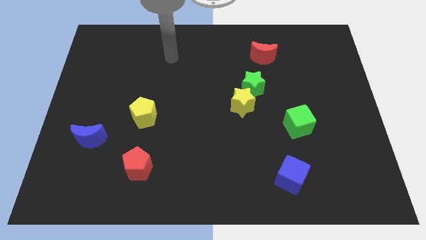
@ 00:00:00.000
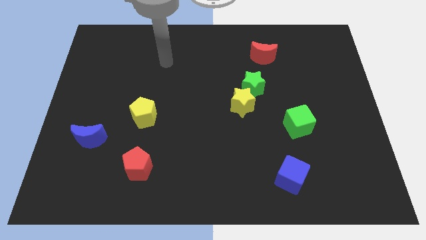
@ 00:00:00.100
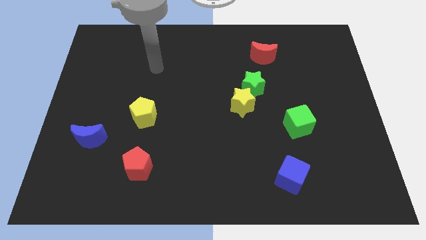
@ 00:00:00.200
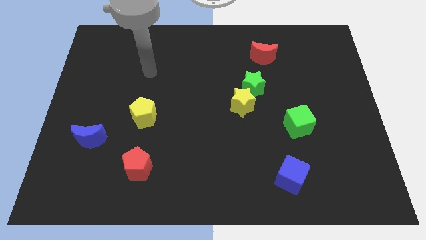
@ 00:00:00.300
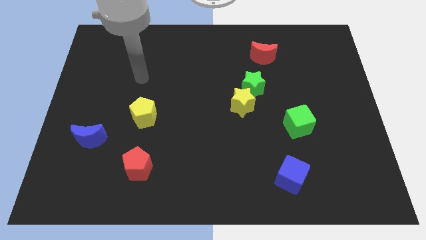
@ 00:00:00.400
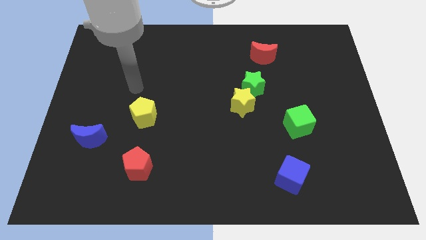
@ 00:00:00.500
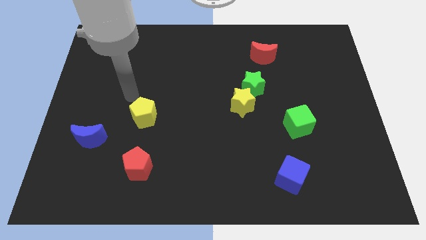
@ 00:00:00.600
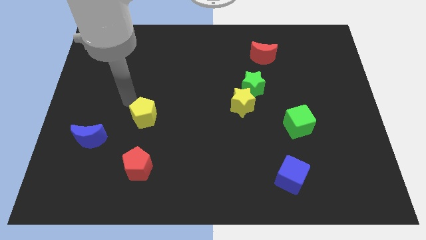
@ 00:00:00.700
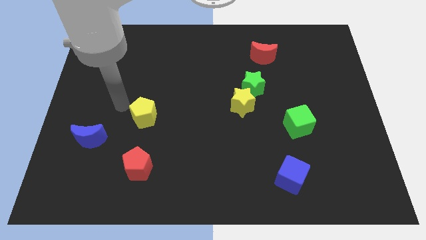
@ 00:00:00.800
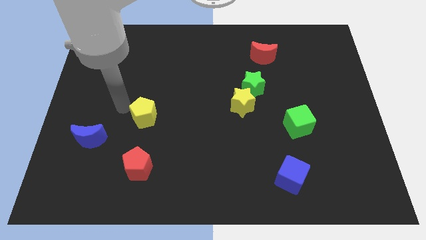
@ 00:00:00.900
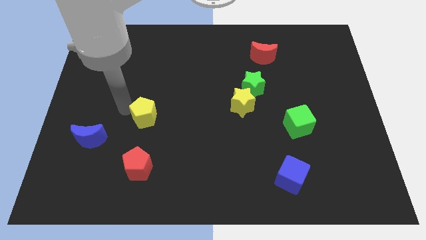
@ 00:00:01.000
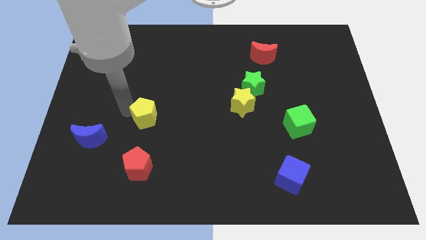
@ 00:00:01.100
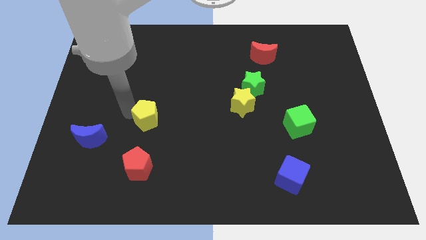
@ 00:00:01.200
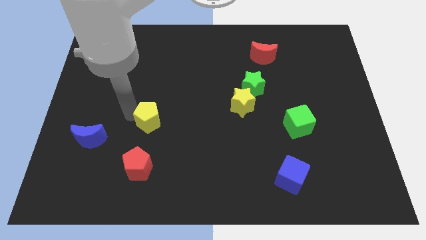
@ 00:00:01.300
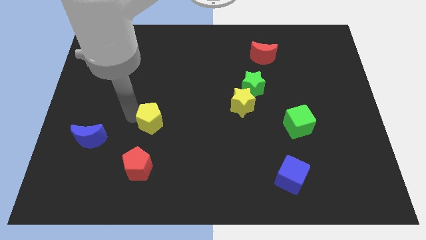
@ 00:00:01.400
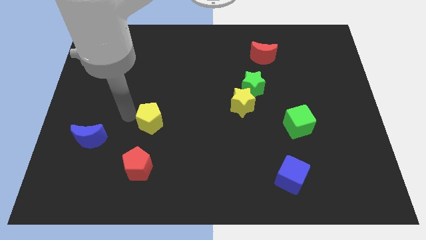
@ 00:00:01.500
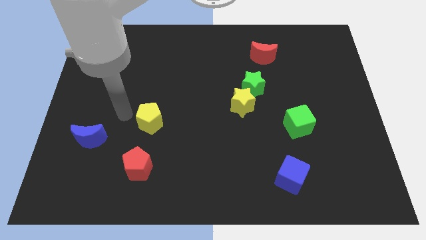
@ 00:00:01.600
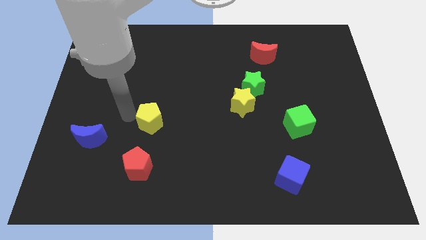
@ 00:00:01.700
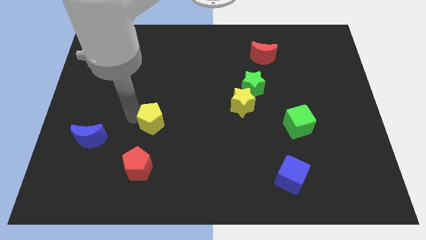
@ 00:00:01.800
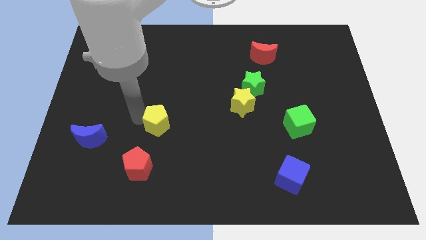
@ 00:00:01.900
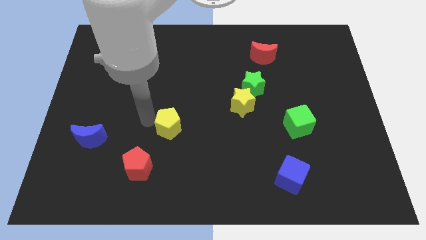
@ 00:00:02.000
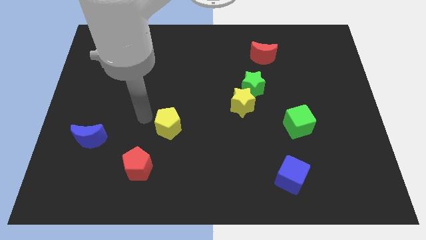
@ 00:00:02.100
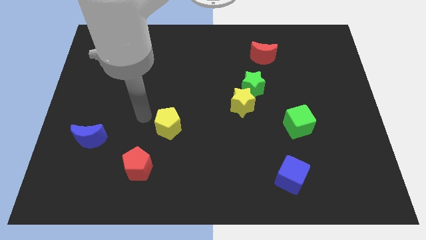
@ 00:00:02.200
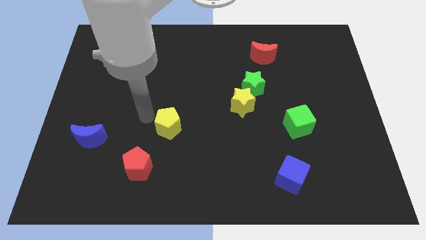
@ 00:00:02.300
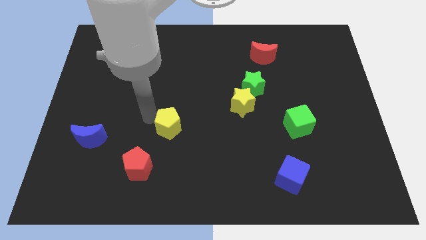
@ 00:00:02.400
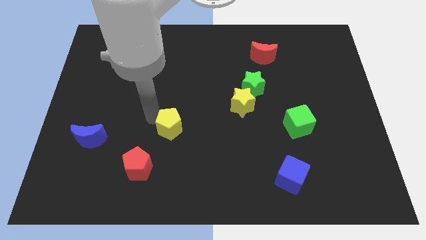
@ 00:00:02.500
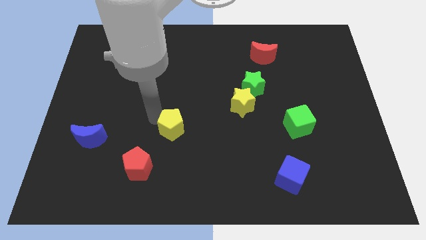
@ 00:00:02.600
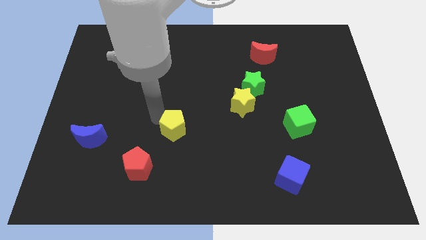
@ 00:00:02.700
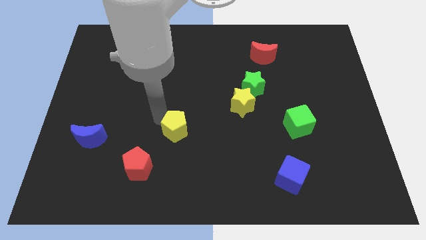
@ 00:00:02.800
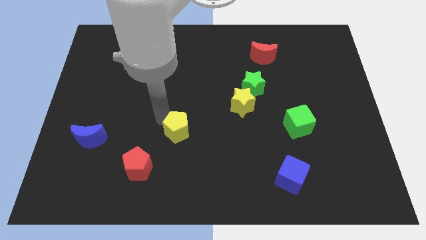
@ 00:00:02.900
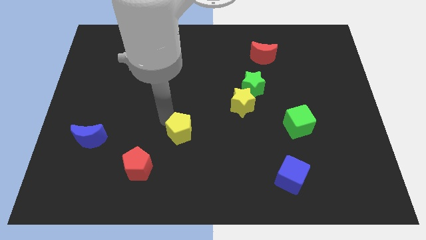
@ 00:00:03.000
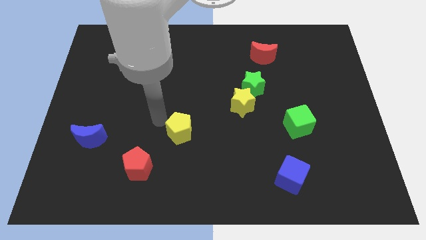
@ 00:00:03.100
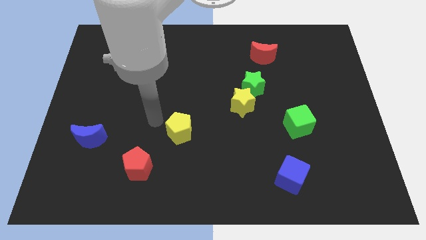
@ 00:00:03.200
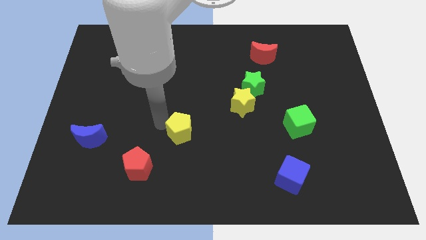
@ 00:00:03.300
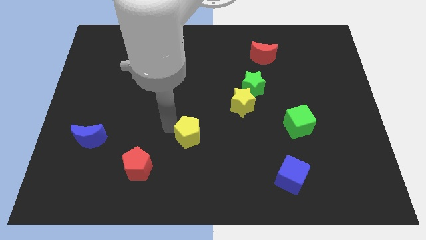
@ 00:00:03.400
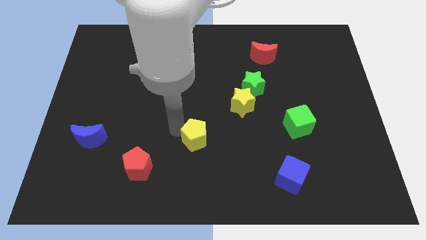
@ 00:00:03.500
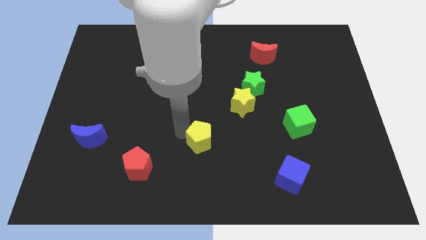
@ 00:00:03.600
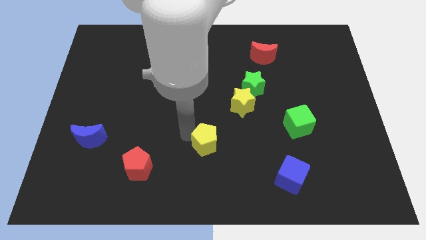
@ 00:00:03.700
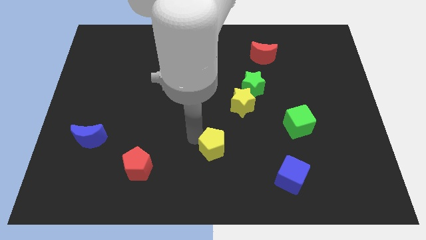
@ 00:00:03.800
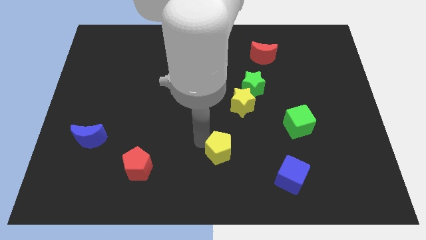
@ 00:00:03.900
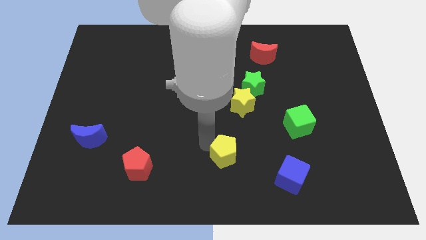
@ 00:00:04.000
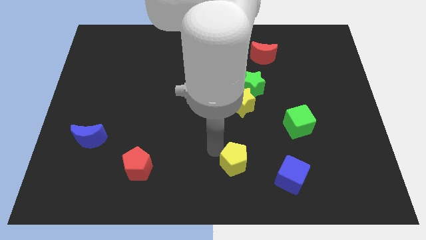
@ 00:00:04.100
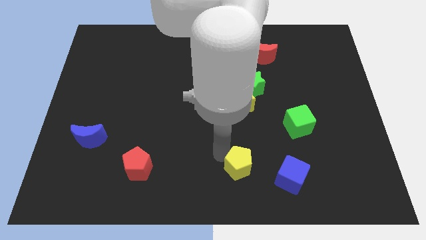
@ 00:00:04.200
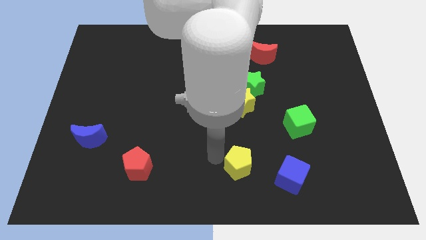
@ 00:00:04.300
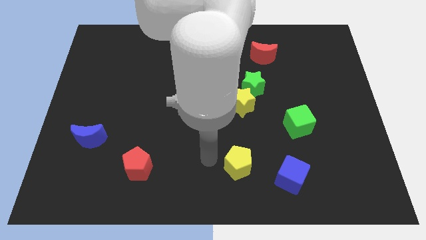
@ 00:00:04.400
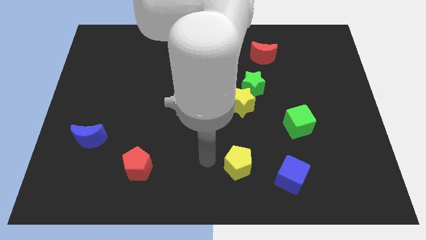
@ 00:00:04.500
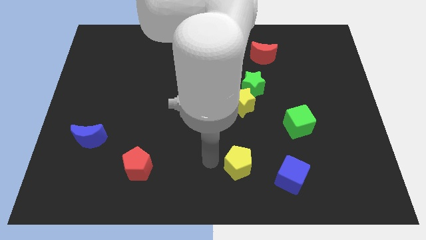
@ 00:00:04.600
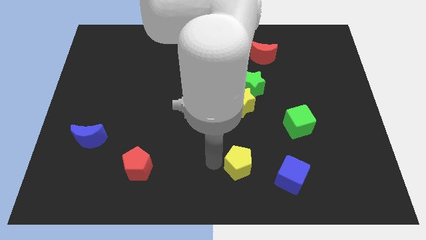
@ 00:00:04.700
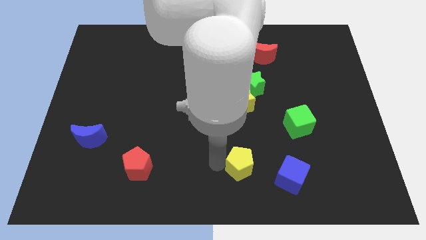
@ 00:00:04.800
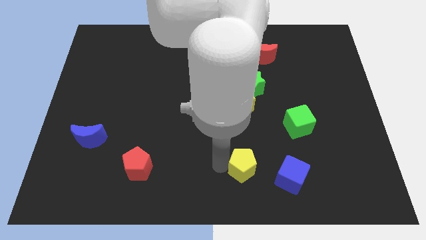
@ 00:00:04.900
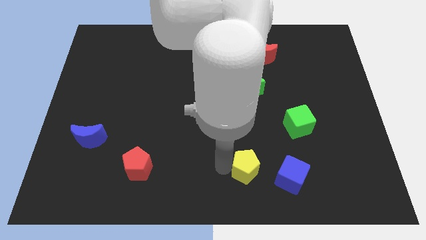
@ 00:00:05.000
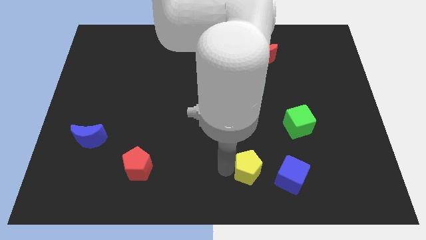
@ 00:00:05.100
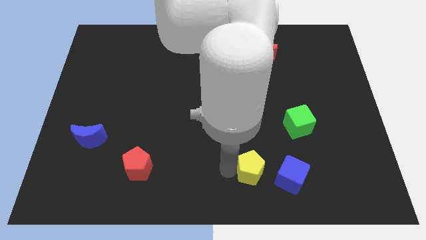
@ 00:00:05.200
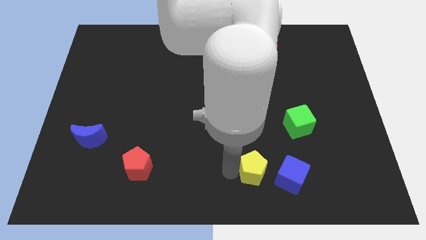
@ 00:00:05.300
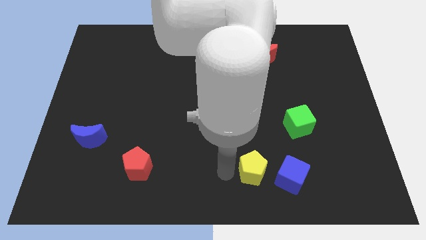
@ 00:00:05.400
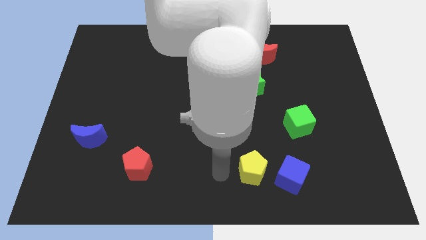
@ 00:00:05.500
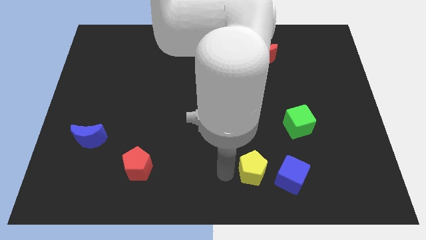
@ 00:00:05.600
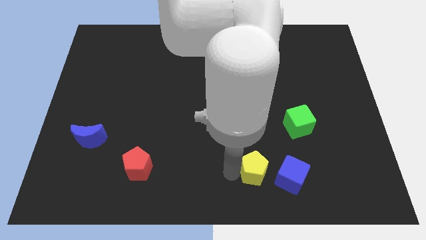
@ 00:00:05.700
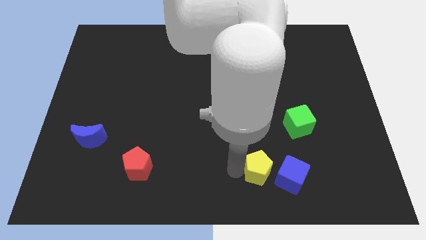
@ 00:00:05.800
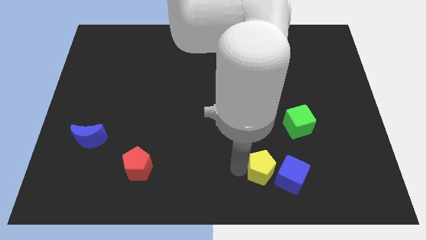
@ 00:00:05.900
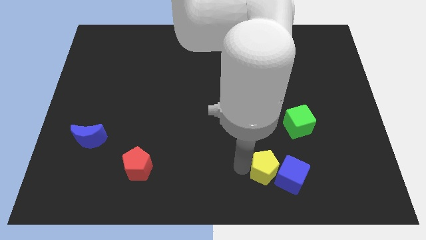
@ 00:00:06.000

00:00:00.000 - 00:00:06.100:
slide the yellow pentagon towards the blue cube
